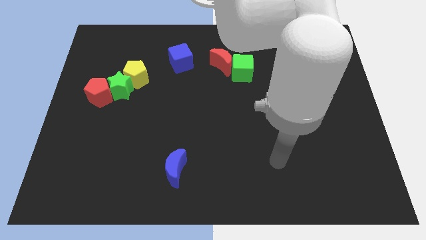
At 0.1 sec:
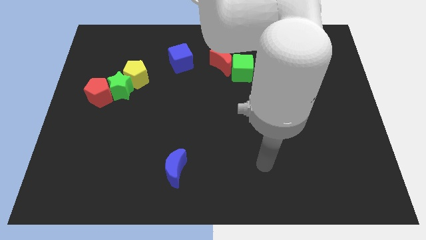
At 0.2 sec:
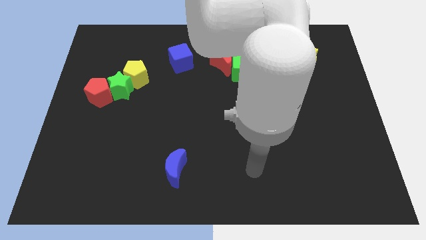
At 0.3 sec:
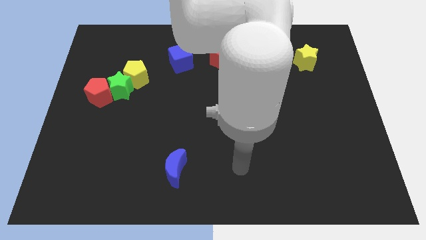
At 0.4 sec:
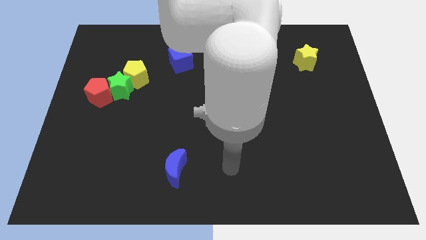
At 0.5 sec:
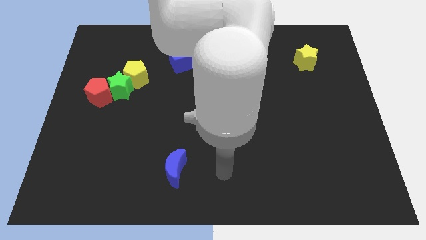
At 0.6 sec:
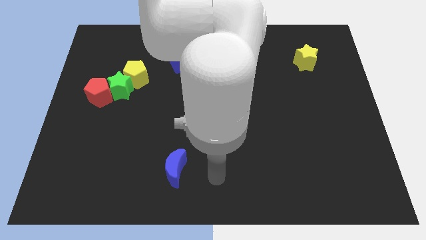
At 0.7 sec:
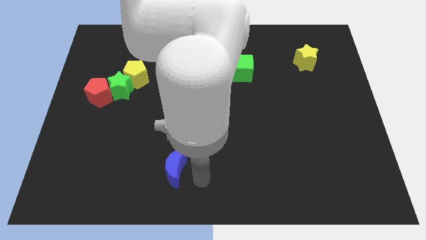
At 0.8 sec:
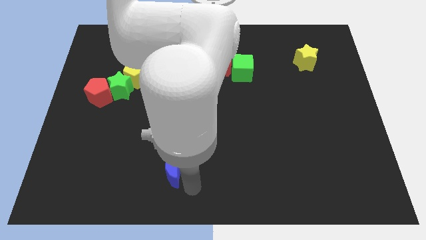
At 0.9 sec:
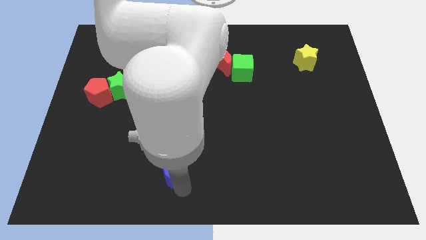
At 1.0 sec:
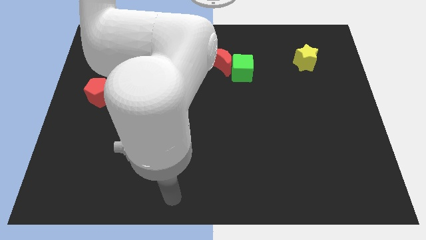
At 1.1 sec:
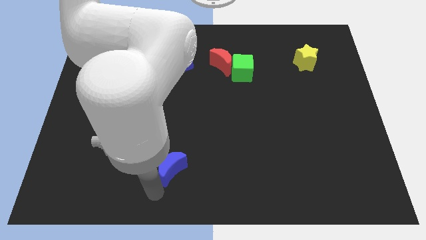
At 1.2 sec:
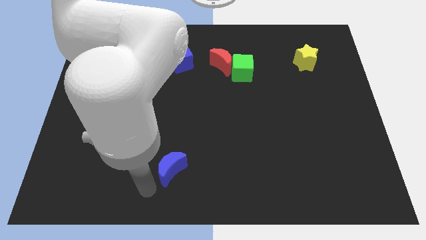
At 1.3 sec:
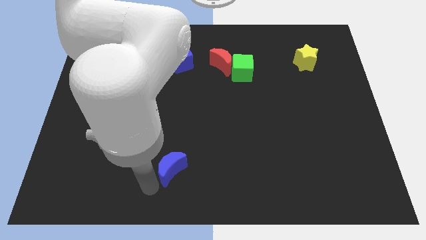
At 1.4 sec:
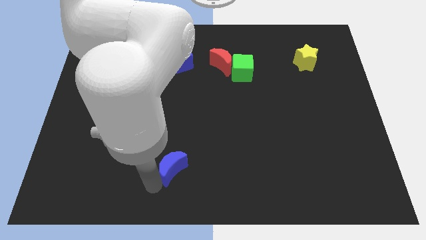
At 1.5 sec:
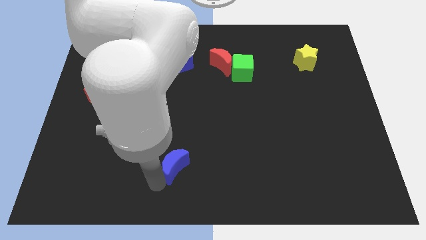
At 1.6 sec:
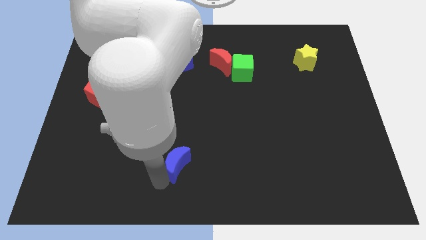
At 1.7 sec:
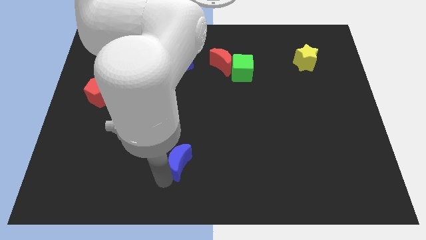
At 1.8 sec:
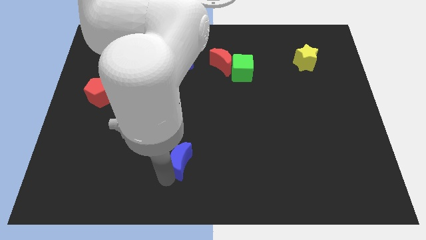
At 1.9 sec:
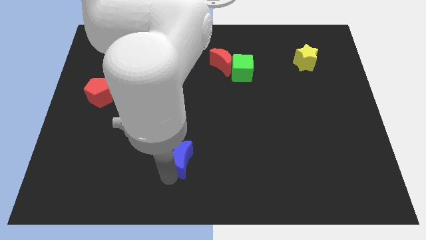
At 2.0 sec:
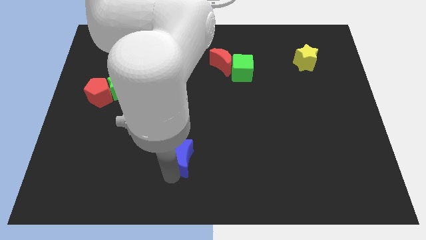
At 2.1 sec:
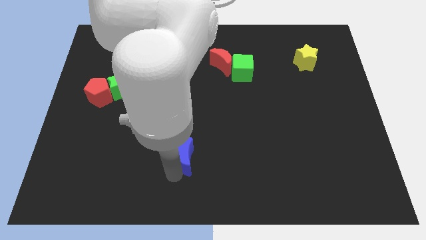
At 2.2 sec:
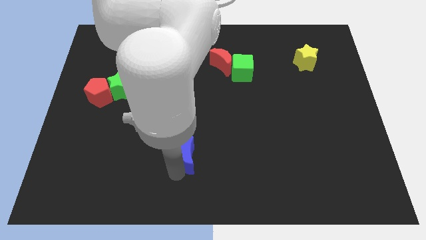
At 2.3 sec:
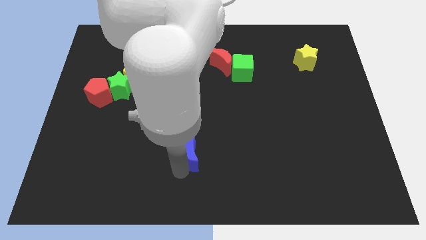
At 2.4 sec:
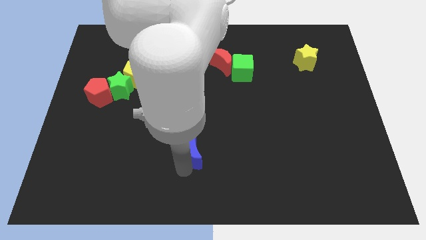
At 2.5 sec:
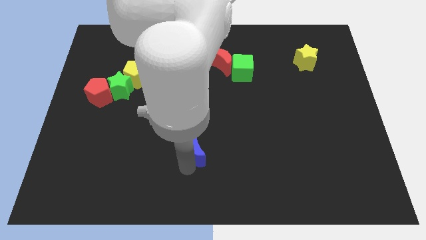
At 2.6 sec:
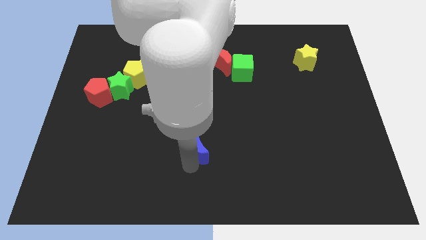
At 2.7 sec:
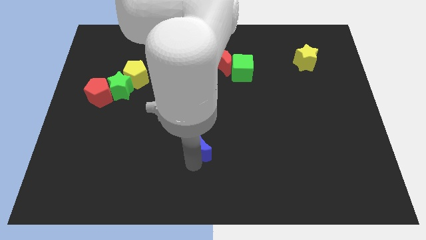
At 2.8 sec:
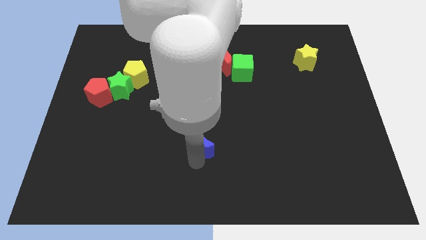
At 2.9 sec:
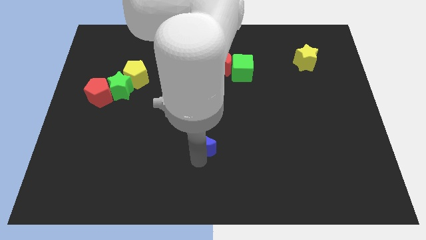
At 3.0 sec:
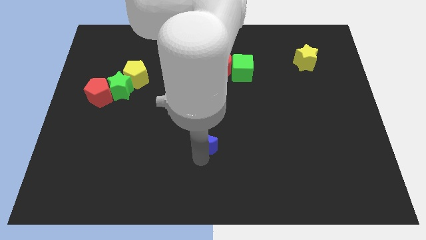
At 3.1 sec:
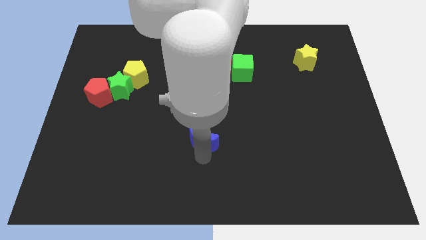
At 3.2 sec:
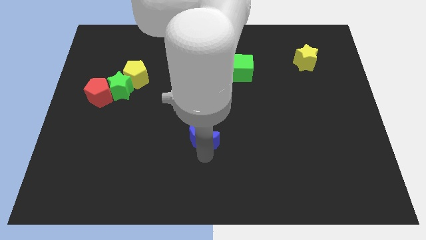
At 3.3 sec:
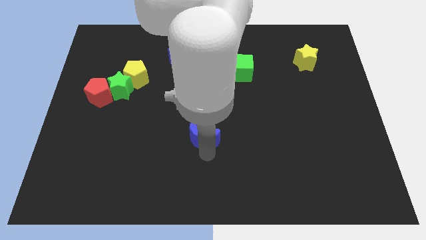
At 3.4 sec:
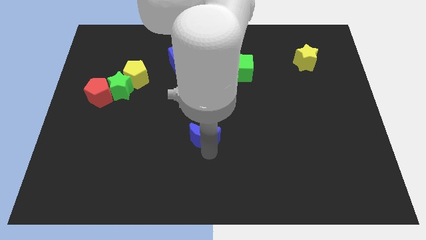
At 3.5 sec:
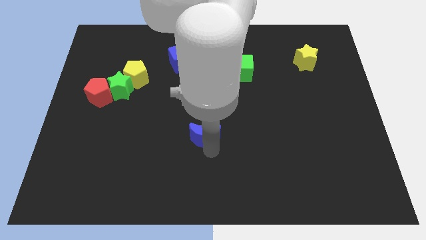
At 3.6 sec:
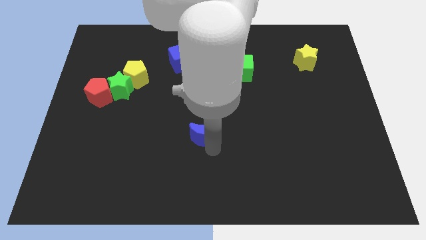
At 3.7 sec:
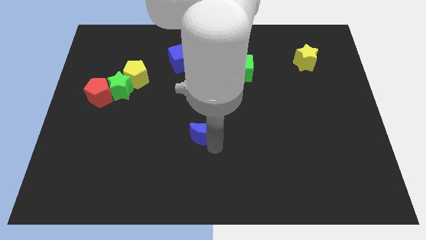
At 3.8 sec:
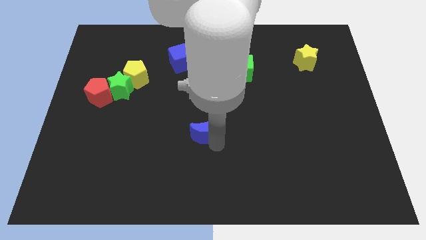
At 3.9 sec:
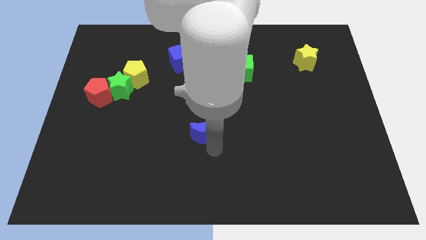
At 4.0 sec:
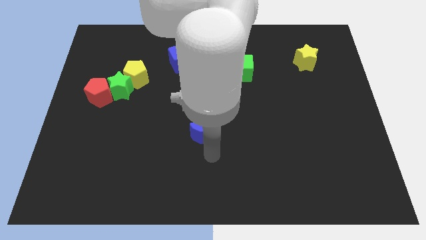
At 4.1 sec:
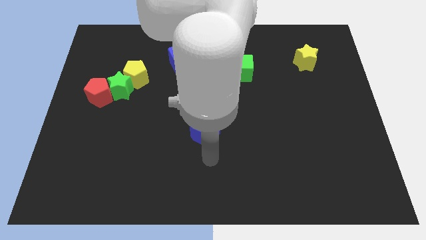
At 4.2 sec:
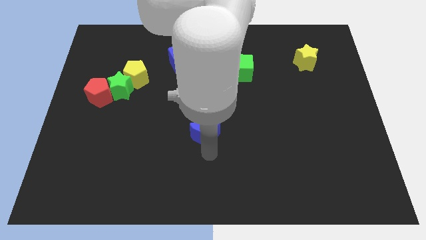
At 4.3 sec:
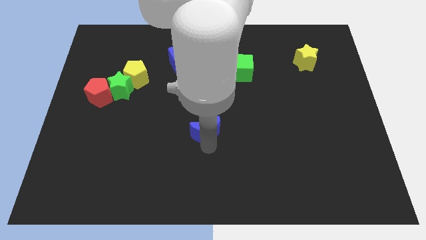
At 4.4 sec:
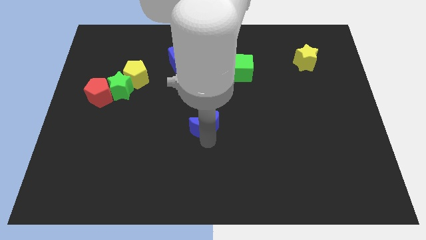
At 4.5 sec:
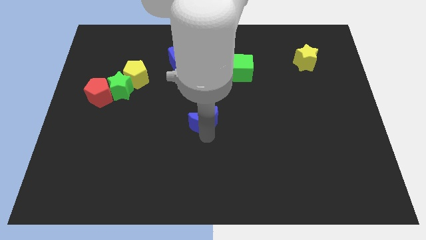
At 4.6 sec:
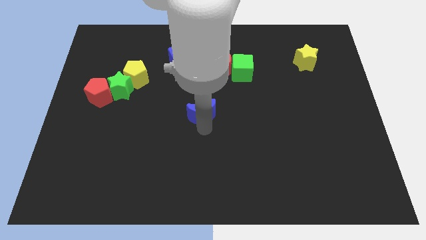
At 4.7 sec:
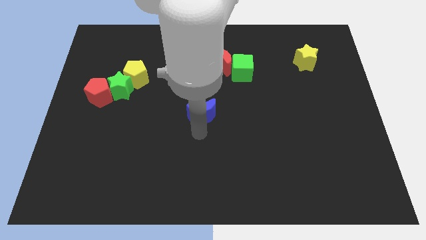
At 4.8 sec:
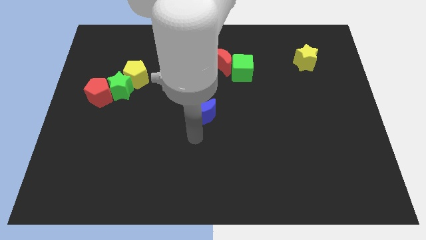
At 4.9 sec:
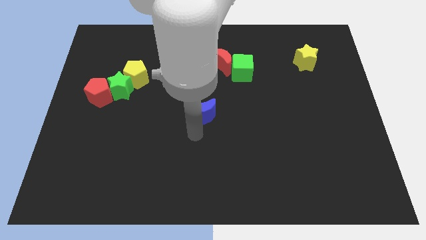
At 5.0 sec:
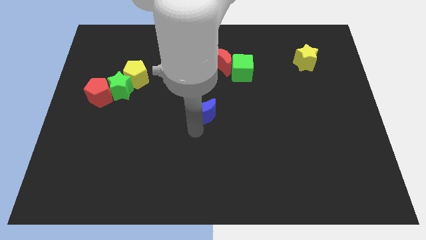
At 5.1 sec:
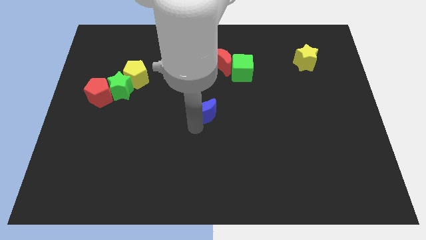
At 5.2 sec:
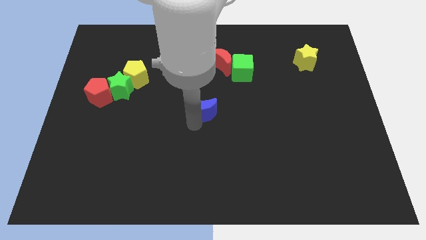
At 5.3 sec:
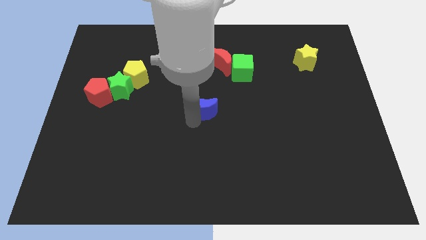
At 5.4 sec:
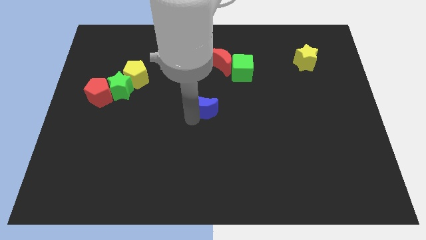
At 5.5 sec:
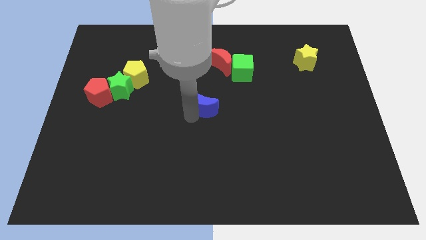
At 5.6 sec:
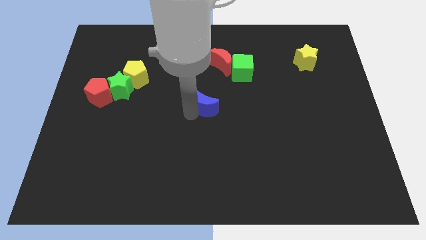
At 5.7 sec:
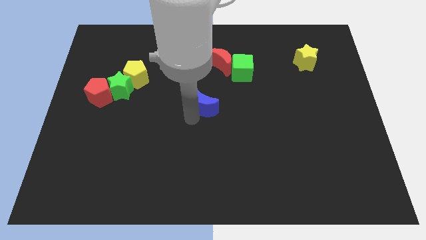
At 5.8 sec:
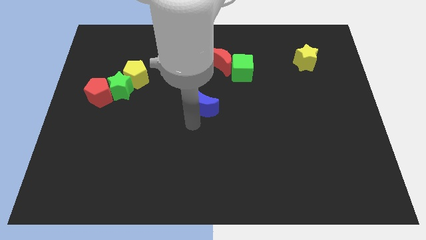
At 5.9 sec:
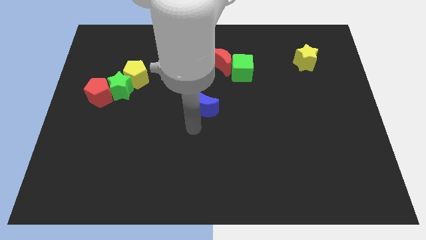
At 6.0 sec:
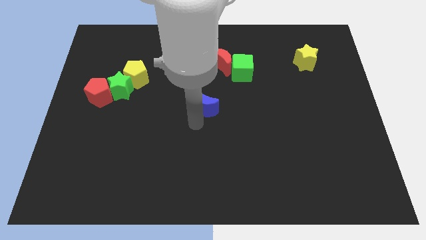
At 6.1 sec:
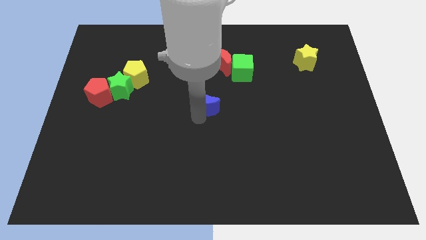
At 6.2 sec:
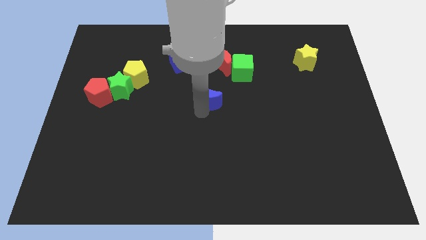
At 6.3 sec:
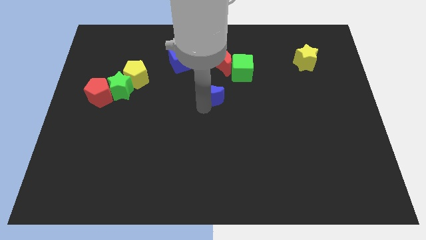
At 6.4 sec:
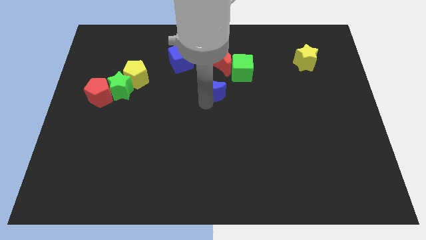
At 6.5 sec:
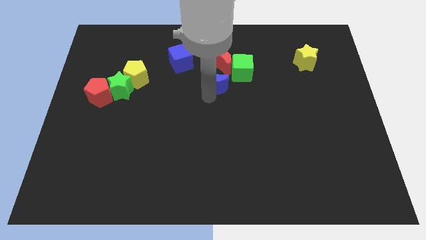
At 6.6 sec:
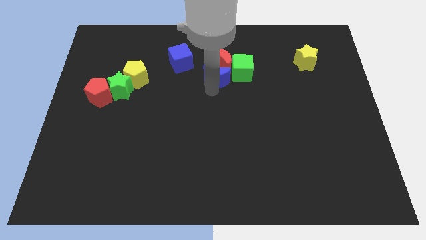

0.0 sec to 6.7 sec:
push the blue moon close to the red moon

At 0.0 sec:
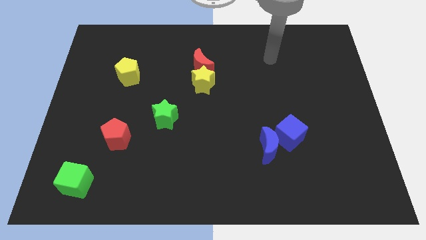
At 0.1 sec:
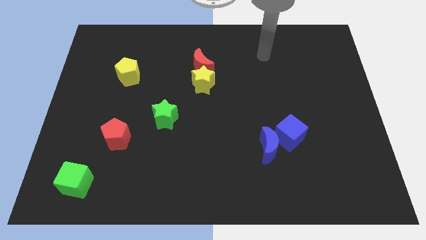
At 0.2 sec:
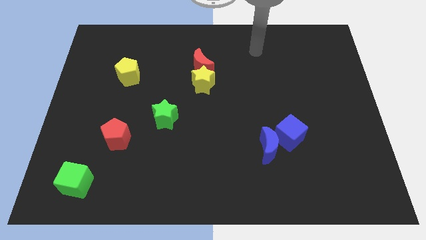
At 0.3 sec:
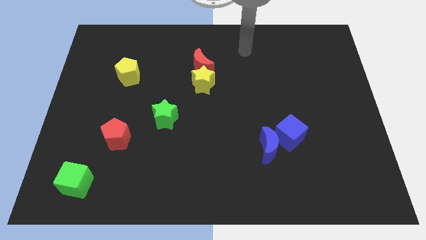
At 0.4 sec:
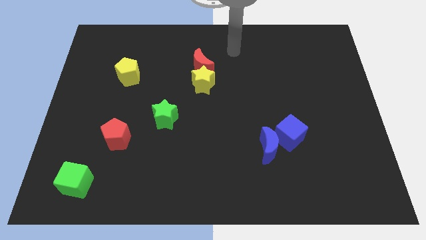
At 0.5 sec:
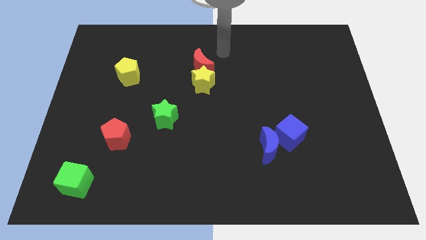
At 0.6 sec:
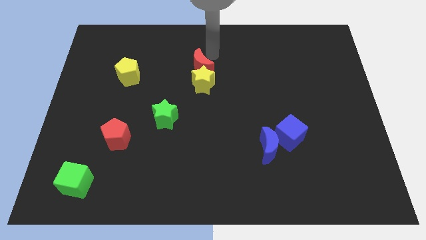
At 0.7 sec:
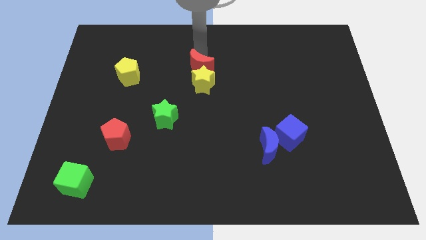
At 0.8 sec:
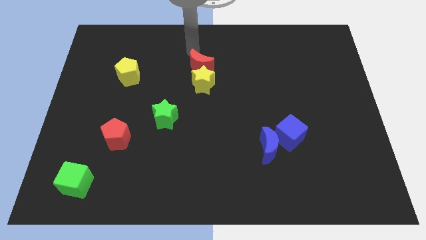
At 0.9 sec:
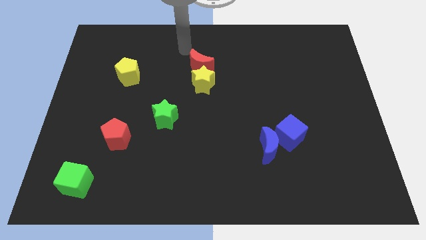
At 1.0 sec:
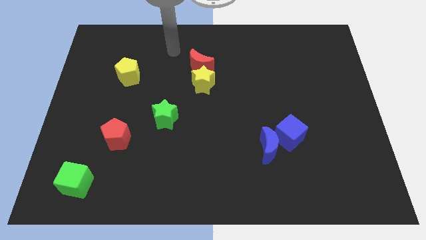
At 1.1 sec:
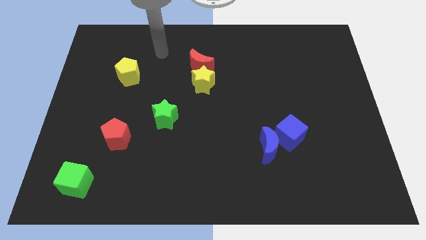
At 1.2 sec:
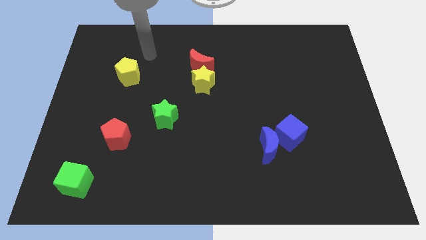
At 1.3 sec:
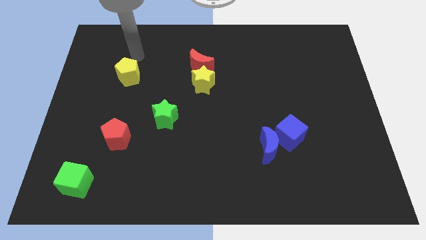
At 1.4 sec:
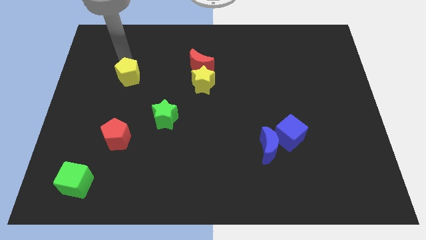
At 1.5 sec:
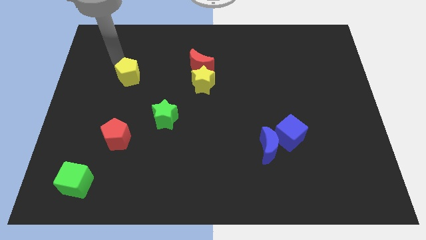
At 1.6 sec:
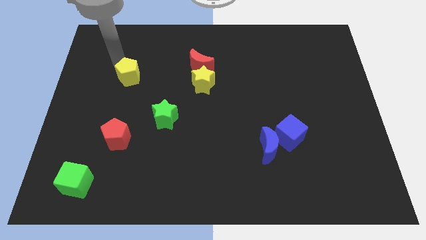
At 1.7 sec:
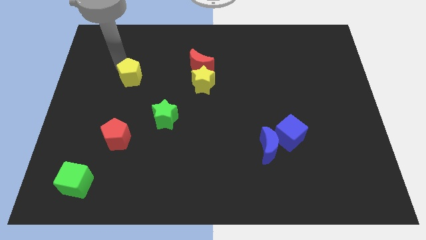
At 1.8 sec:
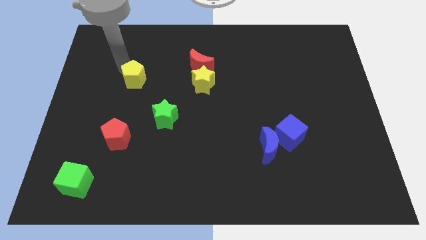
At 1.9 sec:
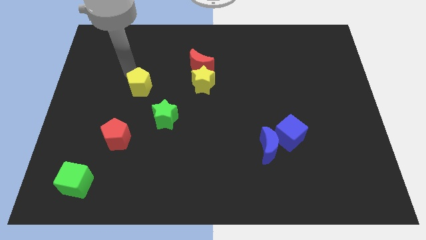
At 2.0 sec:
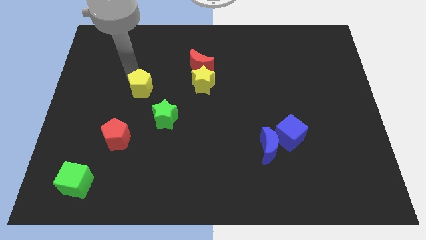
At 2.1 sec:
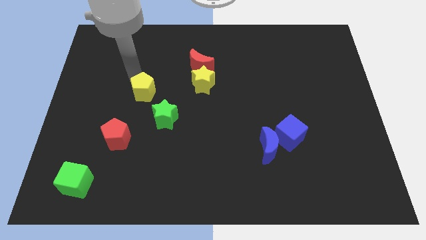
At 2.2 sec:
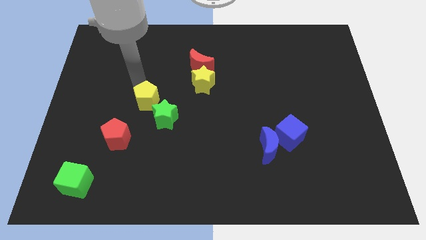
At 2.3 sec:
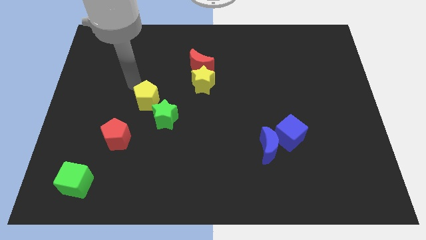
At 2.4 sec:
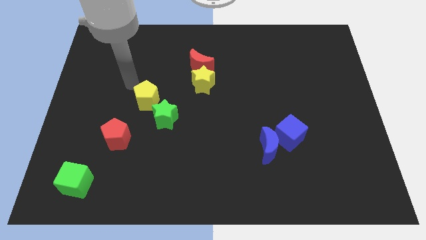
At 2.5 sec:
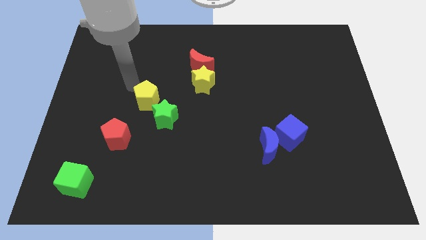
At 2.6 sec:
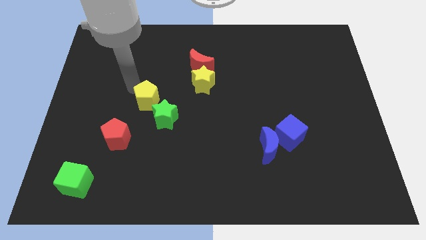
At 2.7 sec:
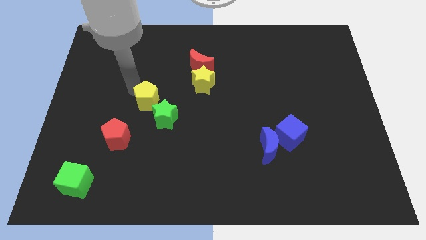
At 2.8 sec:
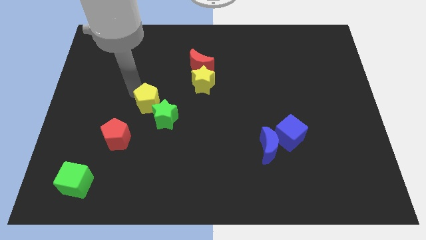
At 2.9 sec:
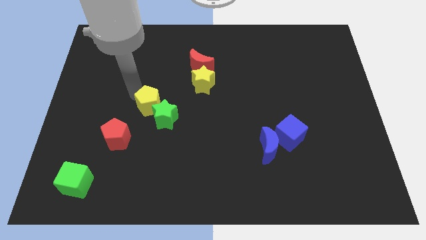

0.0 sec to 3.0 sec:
move the yellow pentagon next to the green star
